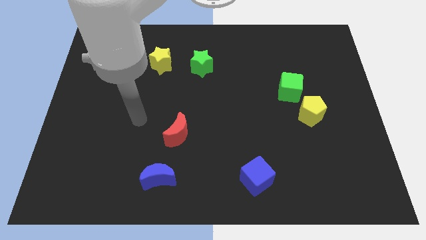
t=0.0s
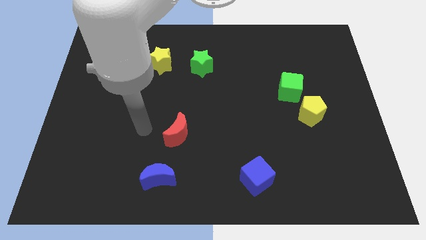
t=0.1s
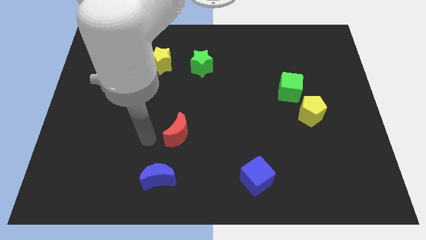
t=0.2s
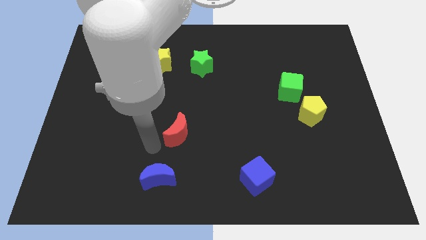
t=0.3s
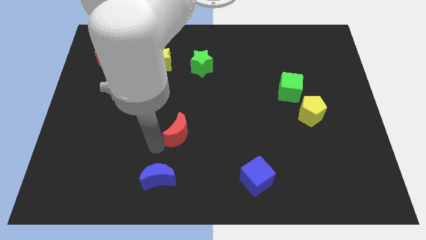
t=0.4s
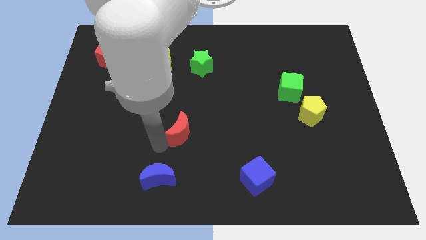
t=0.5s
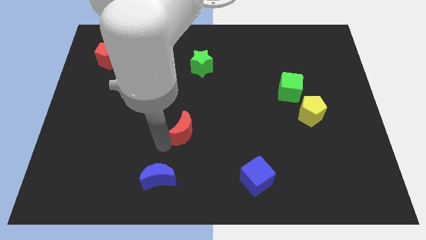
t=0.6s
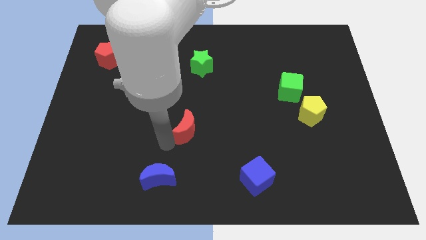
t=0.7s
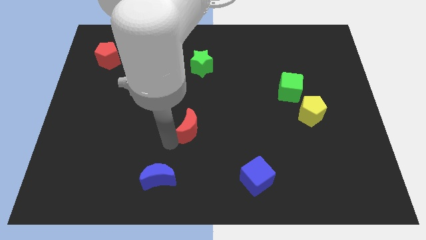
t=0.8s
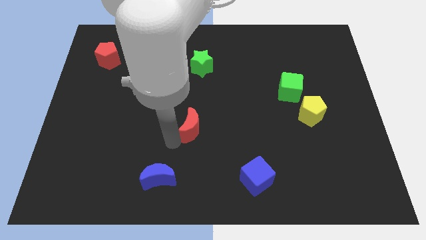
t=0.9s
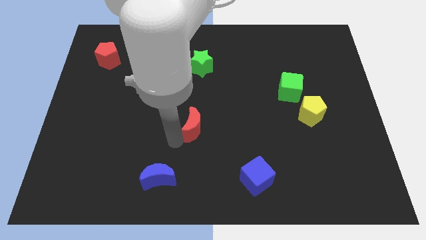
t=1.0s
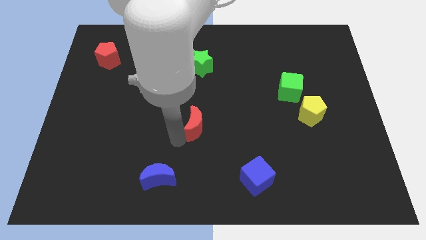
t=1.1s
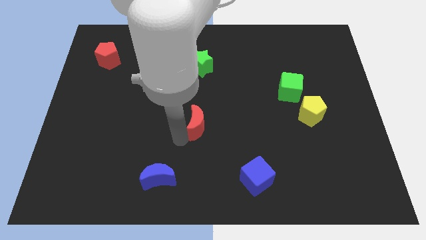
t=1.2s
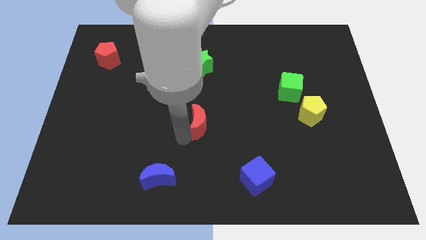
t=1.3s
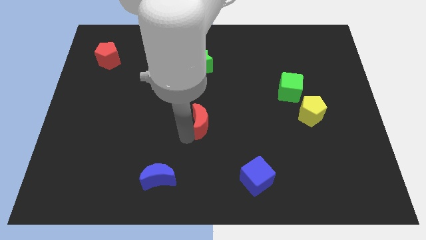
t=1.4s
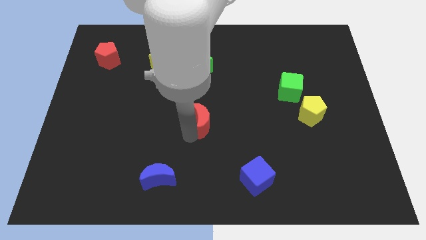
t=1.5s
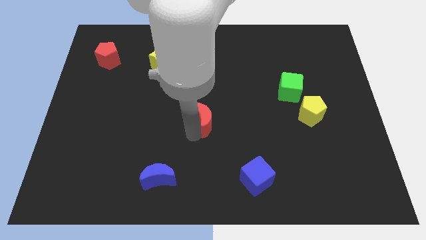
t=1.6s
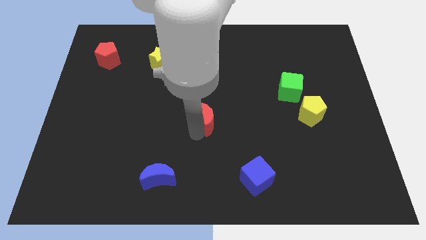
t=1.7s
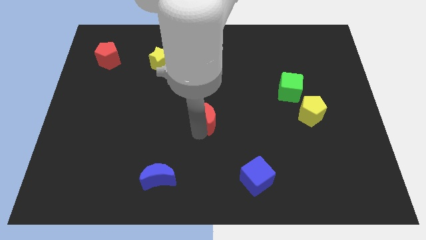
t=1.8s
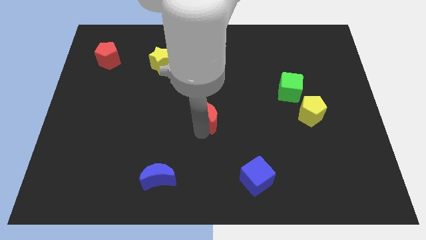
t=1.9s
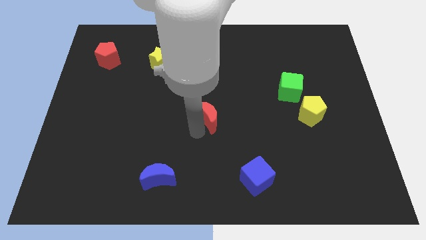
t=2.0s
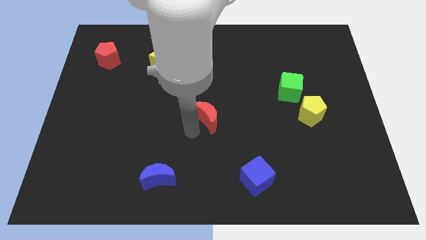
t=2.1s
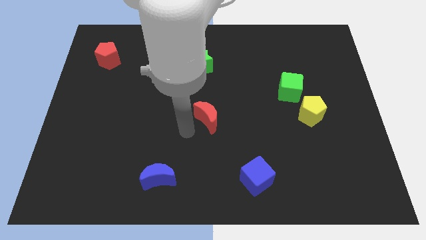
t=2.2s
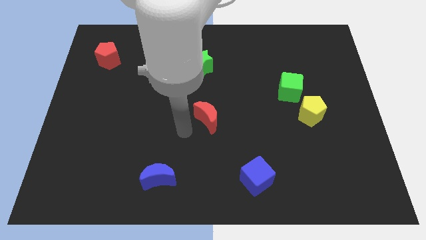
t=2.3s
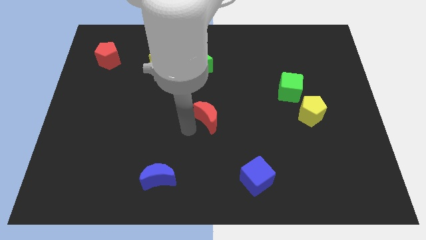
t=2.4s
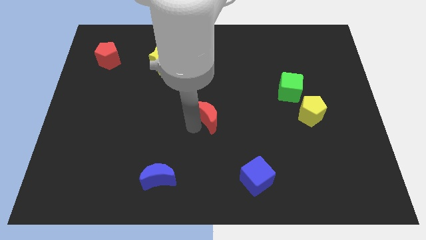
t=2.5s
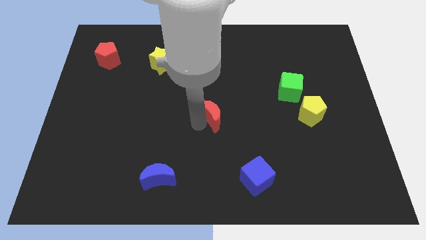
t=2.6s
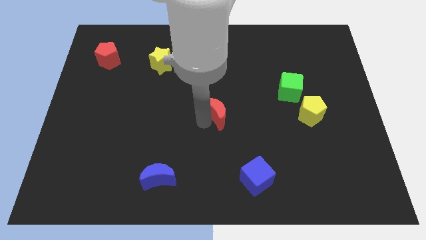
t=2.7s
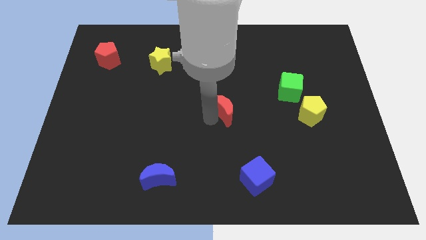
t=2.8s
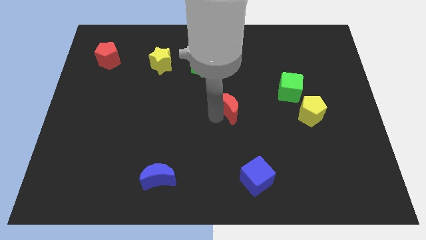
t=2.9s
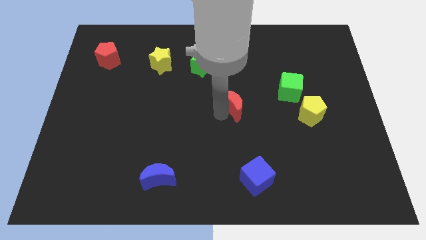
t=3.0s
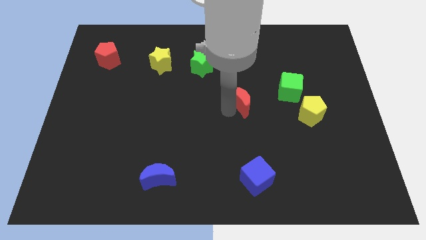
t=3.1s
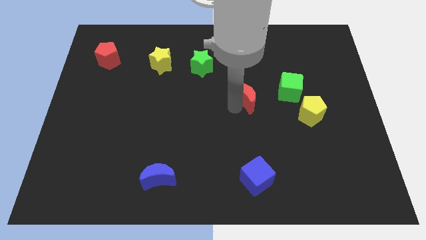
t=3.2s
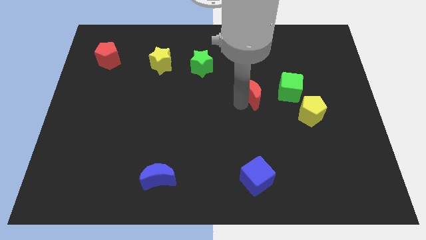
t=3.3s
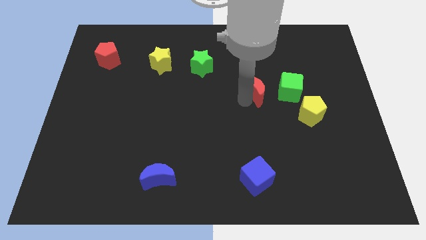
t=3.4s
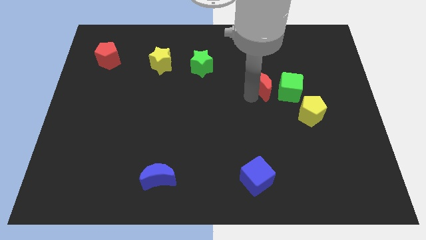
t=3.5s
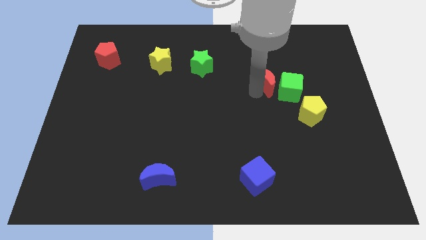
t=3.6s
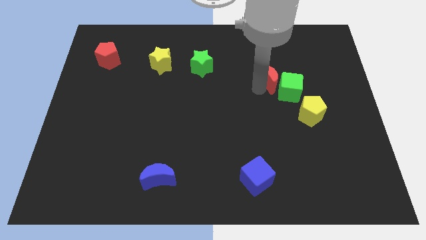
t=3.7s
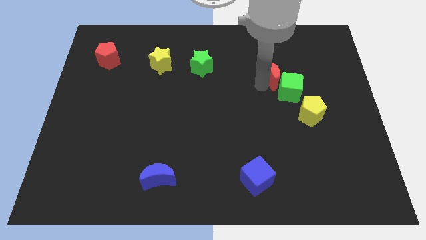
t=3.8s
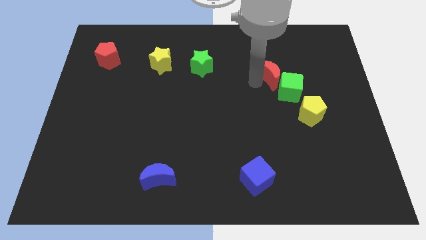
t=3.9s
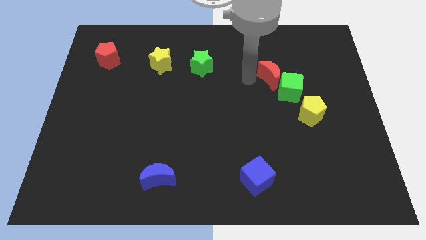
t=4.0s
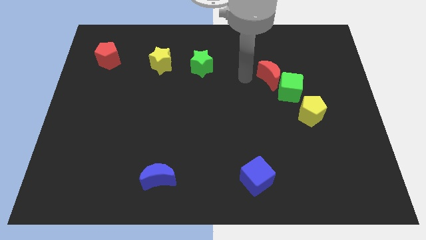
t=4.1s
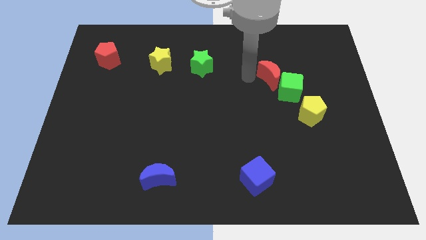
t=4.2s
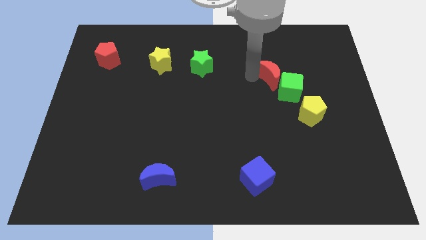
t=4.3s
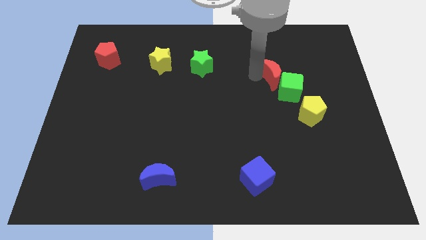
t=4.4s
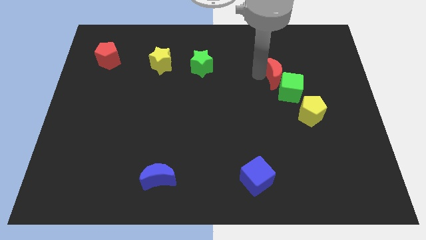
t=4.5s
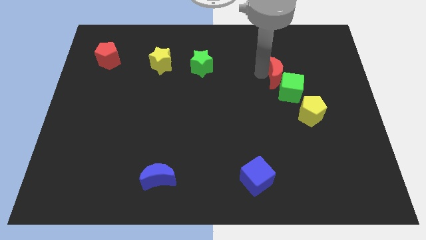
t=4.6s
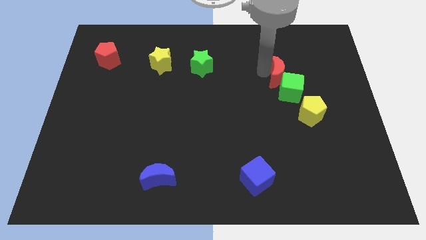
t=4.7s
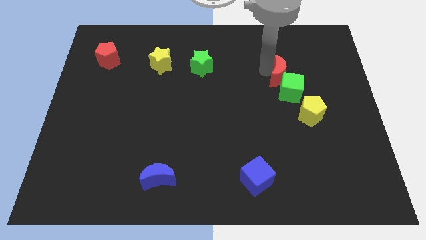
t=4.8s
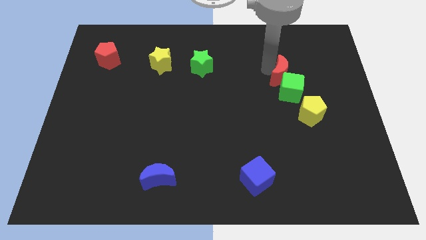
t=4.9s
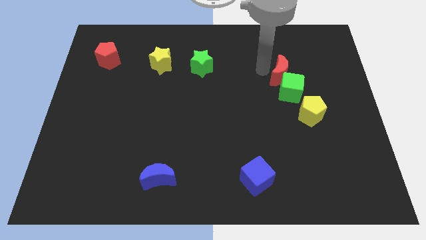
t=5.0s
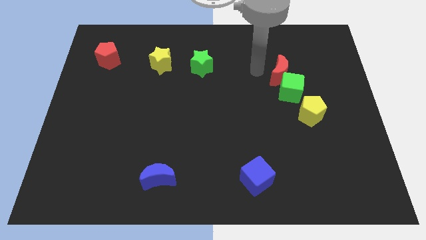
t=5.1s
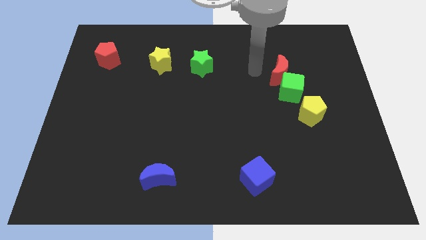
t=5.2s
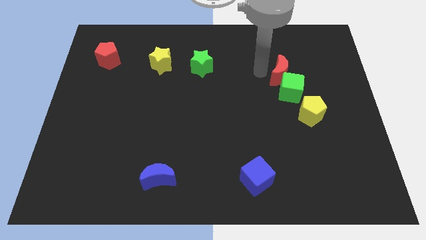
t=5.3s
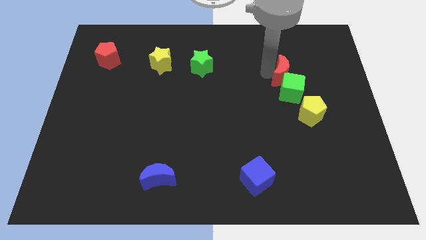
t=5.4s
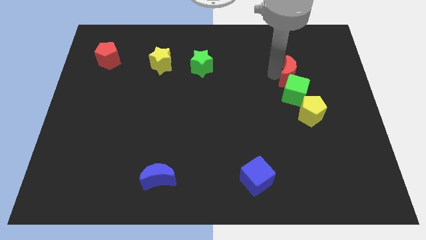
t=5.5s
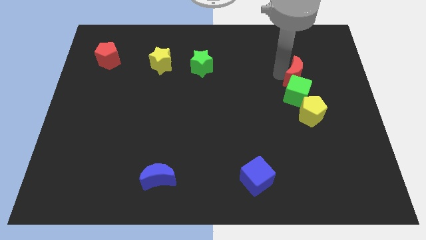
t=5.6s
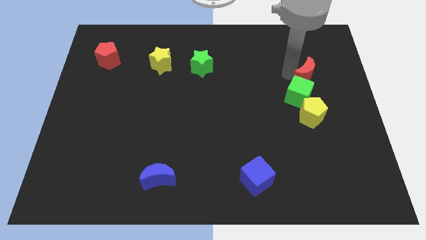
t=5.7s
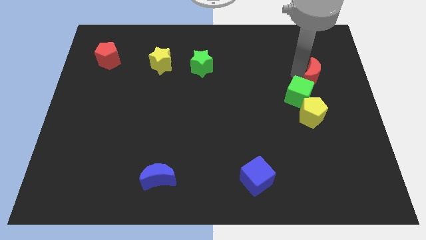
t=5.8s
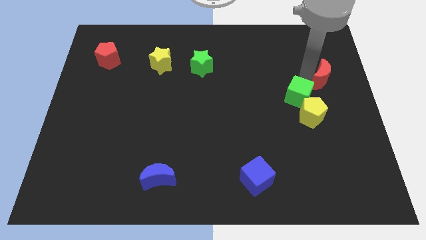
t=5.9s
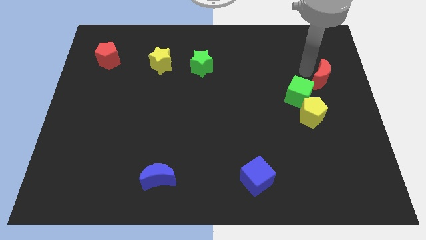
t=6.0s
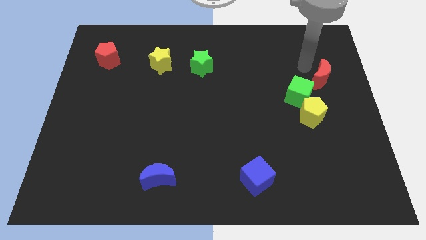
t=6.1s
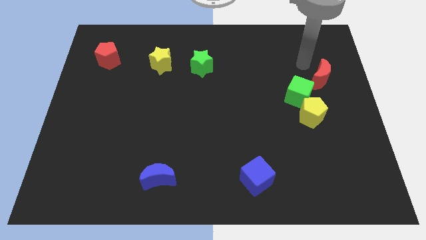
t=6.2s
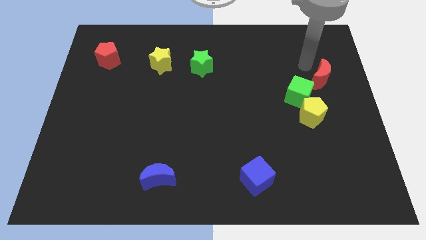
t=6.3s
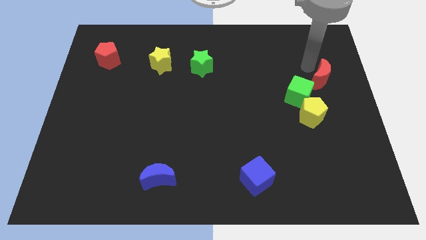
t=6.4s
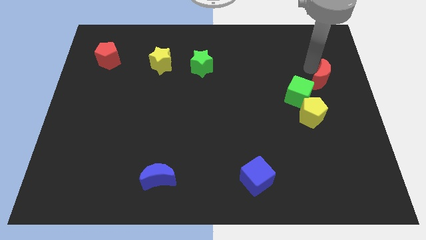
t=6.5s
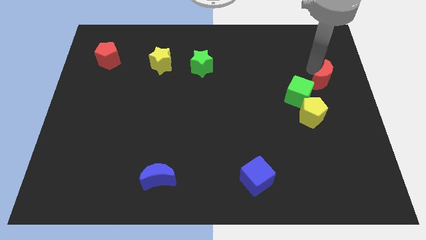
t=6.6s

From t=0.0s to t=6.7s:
move the red moon right of the green cube
